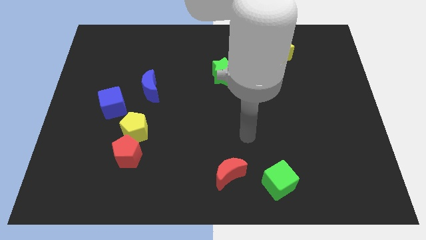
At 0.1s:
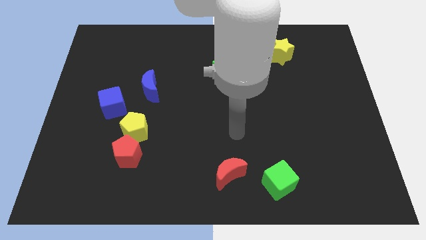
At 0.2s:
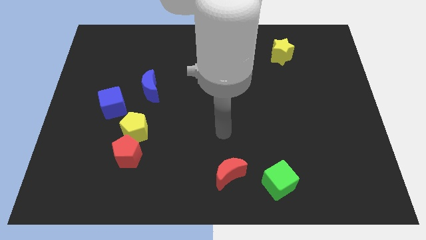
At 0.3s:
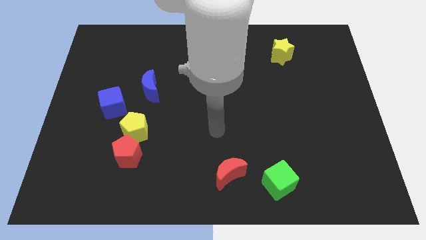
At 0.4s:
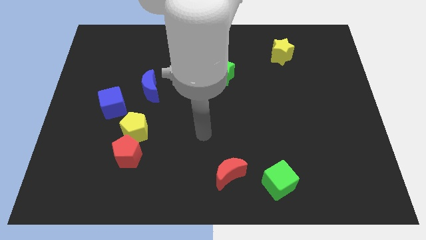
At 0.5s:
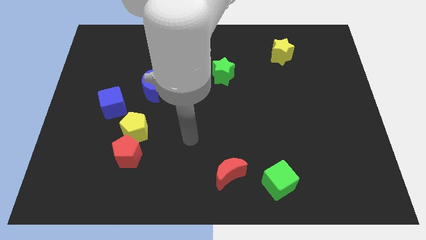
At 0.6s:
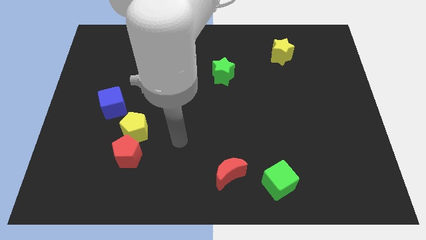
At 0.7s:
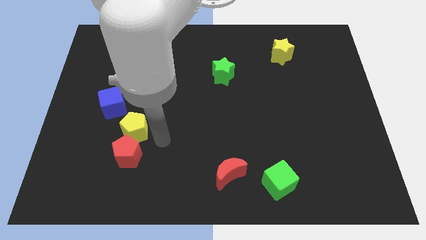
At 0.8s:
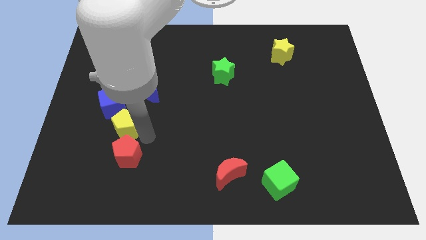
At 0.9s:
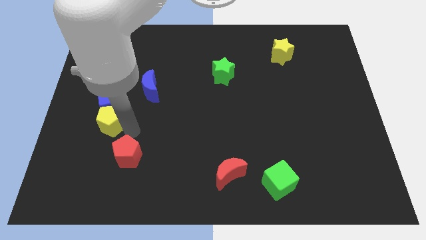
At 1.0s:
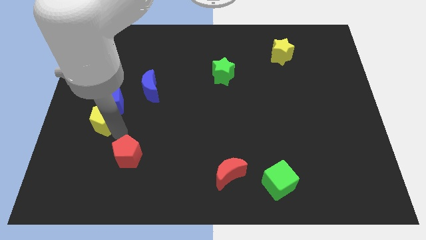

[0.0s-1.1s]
pull the red pentagon apart from the yellow pentagon

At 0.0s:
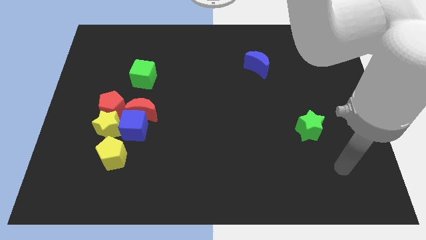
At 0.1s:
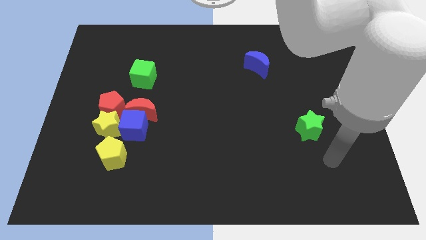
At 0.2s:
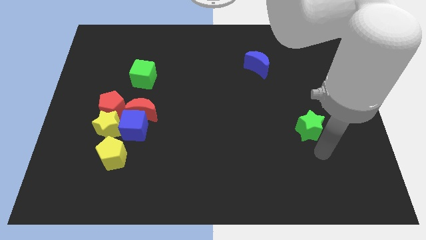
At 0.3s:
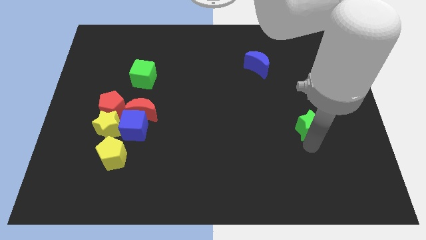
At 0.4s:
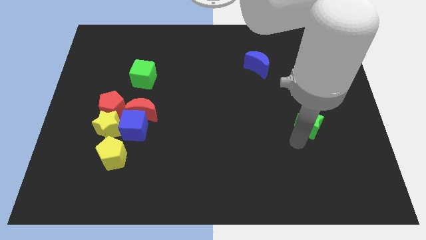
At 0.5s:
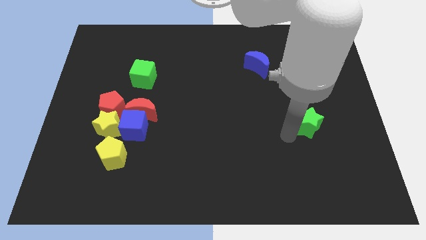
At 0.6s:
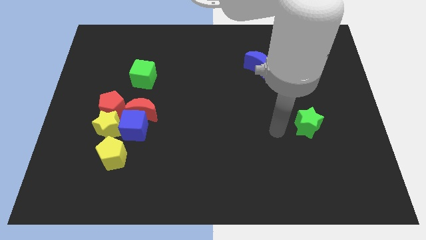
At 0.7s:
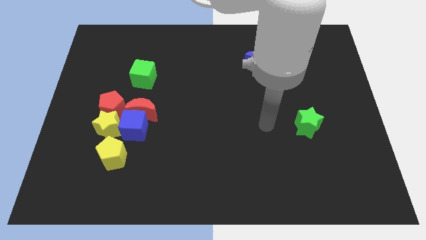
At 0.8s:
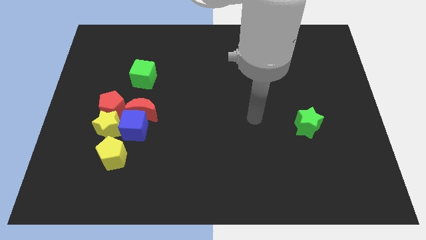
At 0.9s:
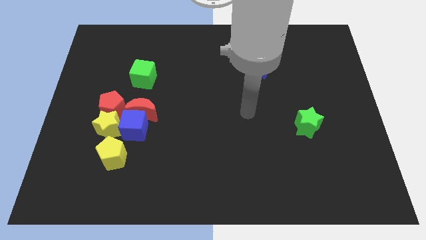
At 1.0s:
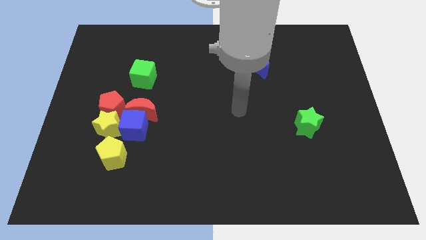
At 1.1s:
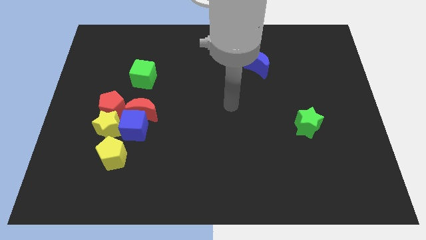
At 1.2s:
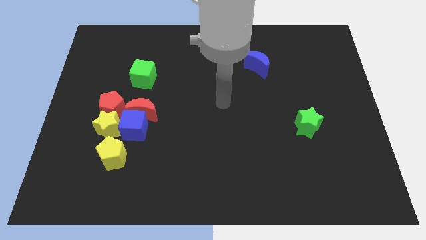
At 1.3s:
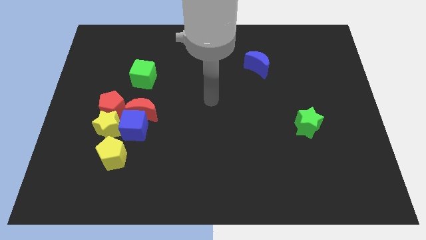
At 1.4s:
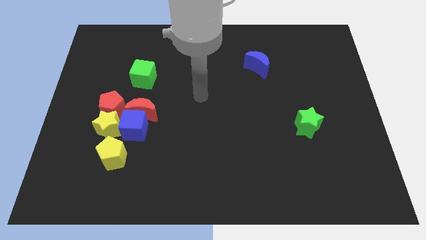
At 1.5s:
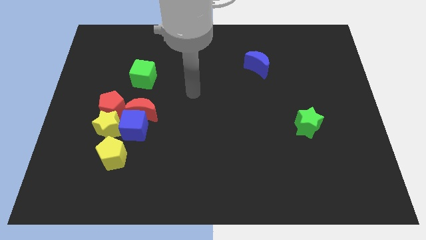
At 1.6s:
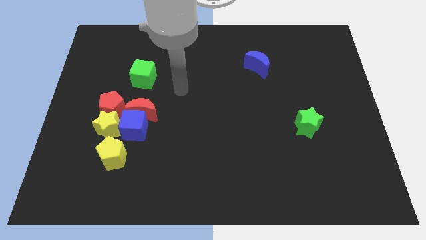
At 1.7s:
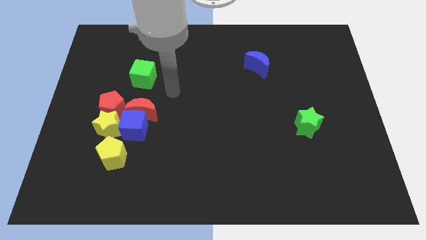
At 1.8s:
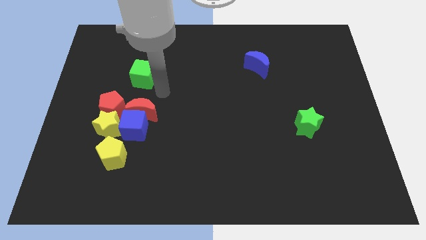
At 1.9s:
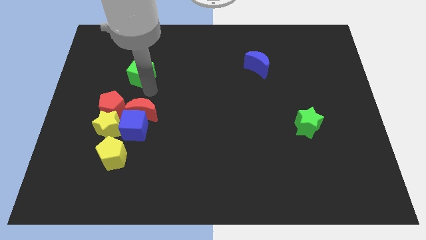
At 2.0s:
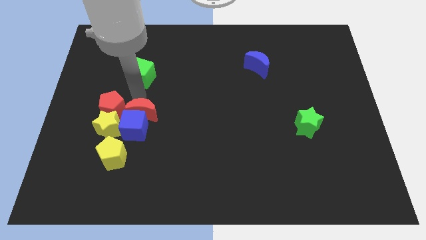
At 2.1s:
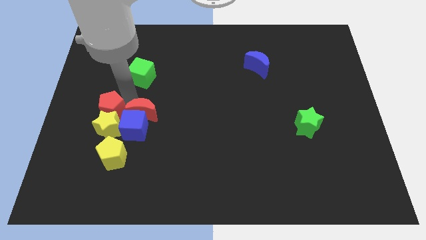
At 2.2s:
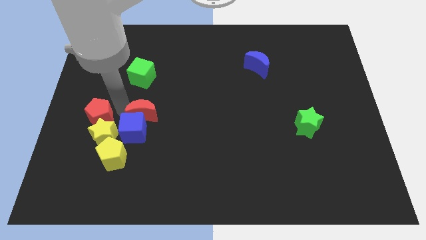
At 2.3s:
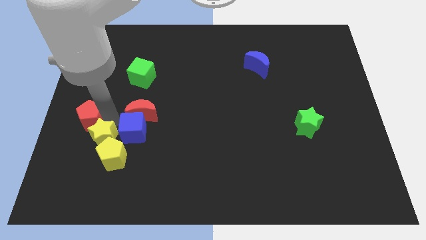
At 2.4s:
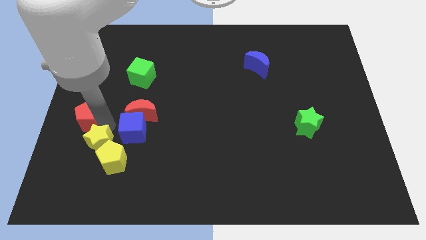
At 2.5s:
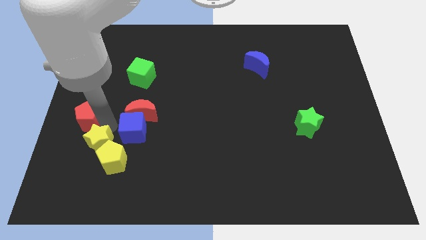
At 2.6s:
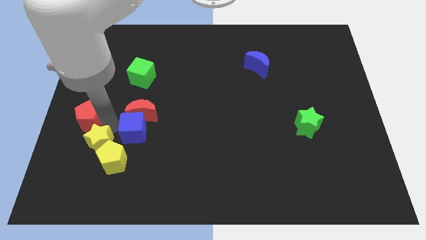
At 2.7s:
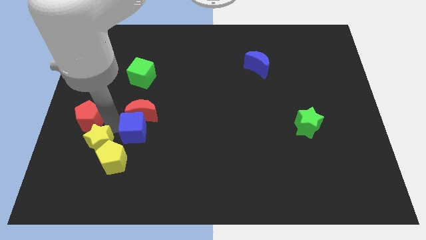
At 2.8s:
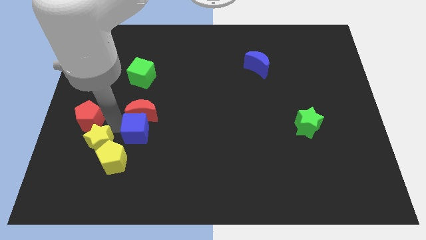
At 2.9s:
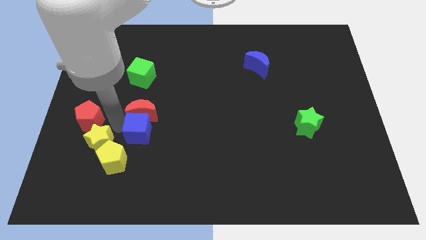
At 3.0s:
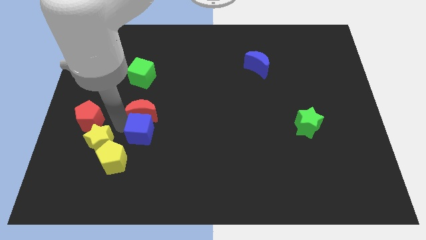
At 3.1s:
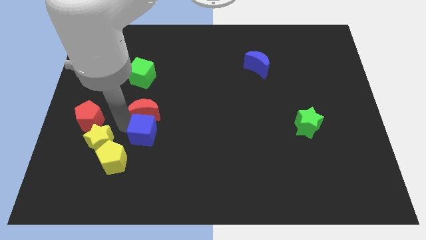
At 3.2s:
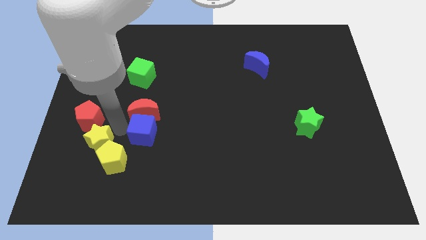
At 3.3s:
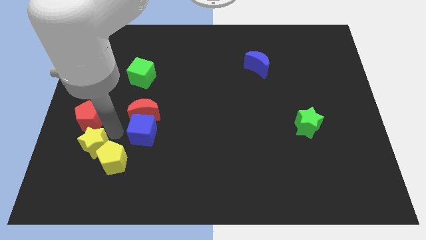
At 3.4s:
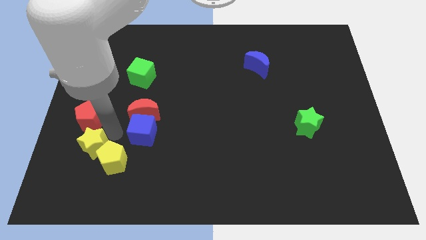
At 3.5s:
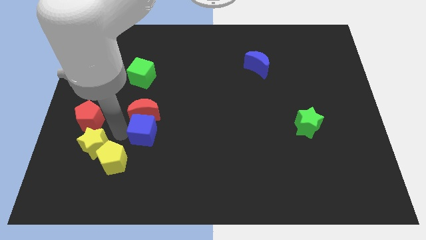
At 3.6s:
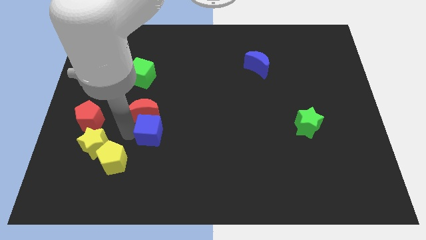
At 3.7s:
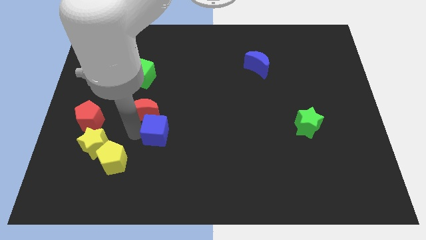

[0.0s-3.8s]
pull the blue cube apart from the group of blocks

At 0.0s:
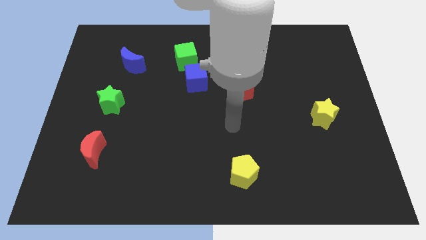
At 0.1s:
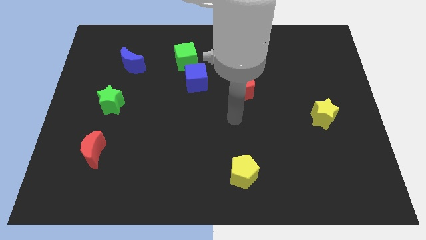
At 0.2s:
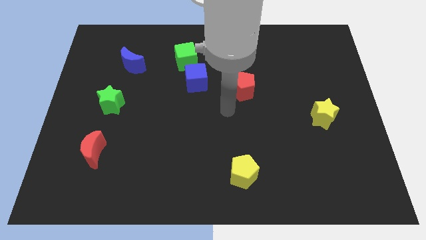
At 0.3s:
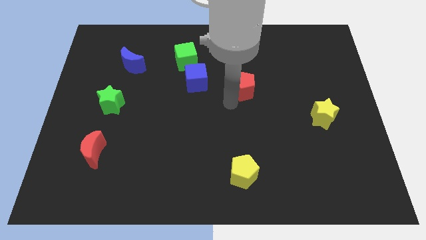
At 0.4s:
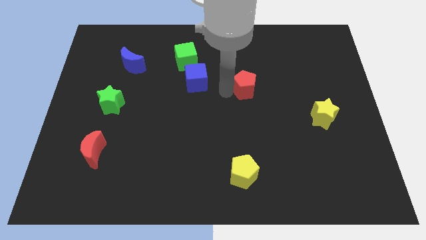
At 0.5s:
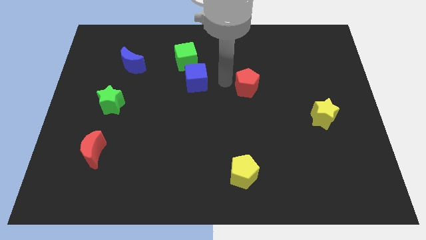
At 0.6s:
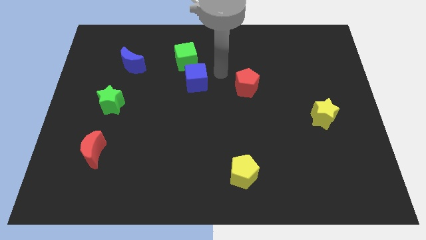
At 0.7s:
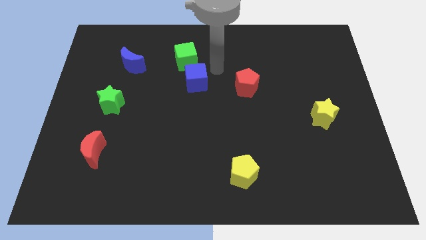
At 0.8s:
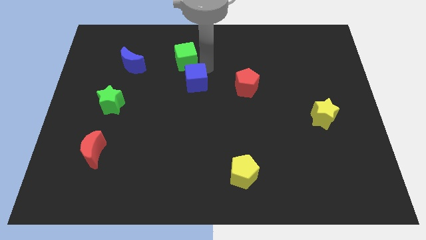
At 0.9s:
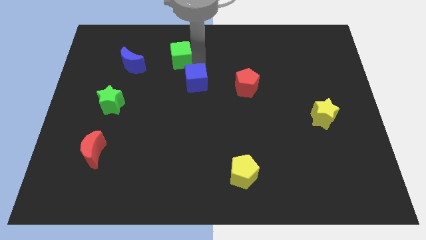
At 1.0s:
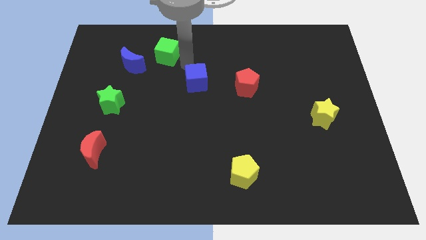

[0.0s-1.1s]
separate the blue cube from the green cube

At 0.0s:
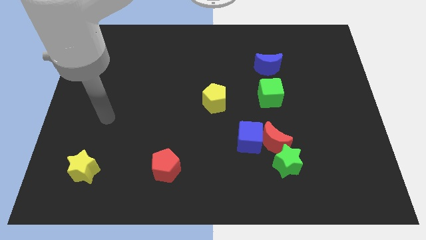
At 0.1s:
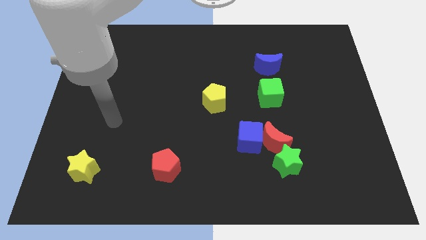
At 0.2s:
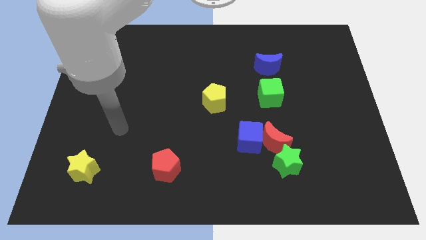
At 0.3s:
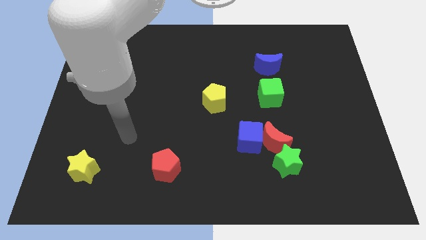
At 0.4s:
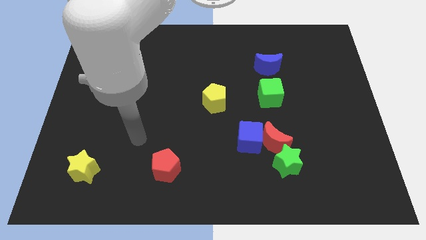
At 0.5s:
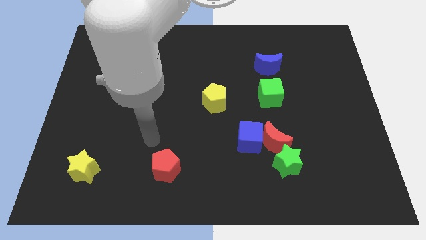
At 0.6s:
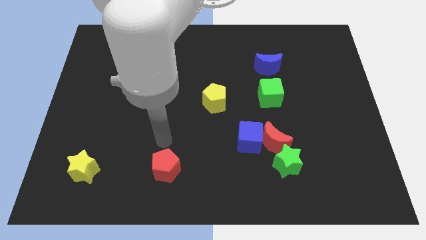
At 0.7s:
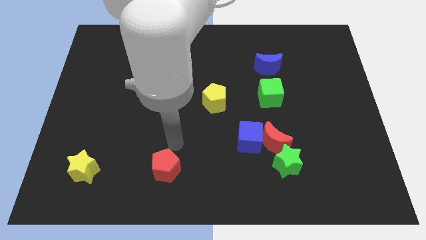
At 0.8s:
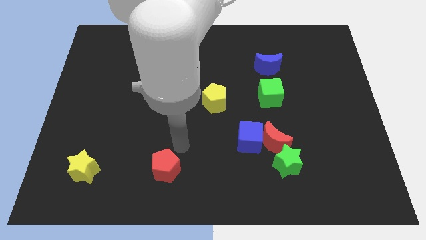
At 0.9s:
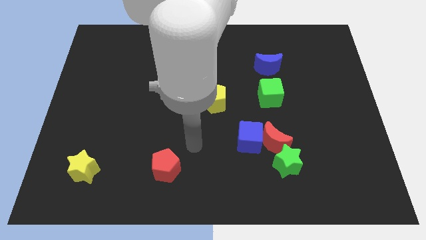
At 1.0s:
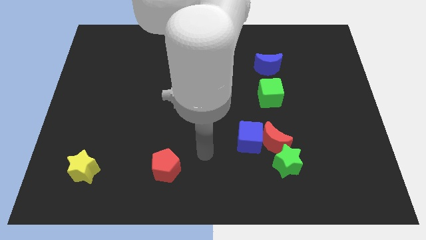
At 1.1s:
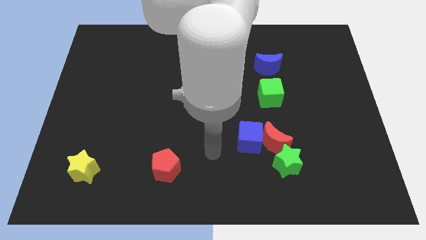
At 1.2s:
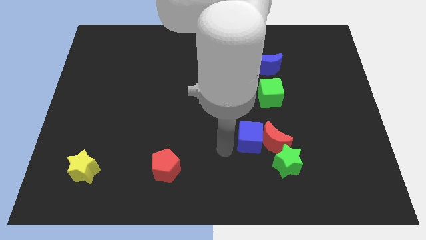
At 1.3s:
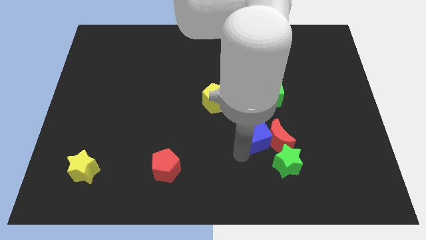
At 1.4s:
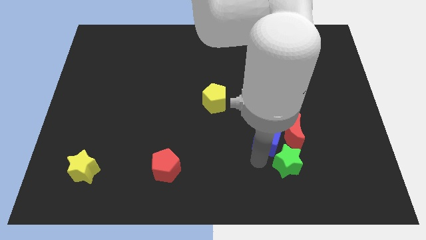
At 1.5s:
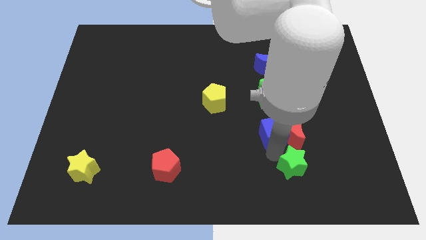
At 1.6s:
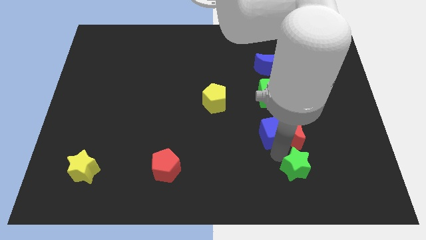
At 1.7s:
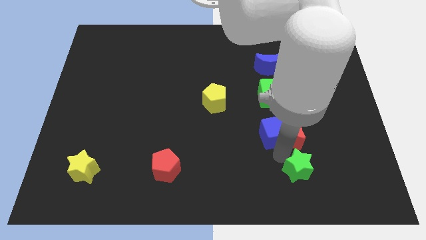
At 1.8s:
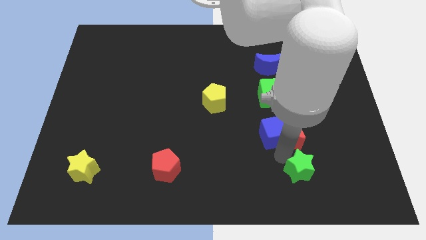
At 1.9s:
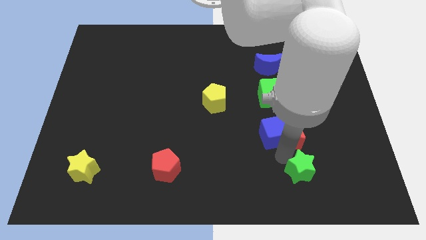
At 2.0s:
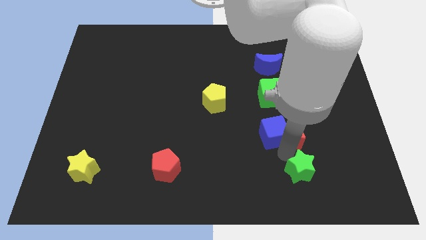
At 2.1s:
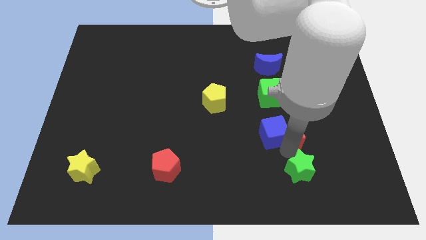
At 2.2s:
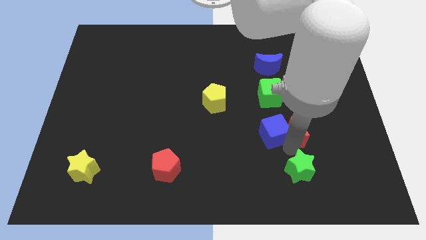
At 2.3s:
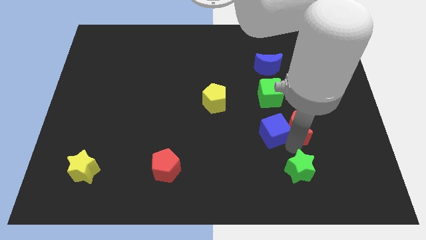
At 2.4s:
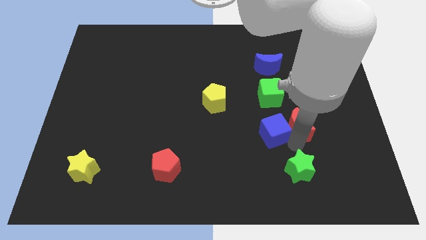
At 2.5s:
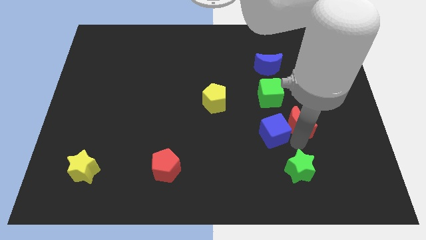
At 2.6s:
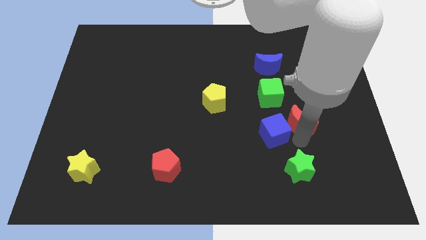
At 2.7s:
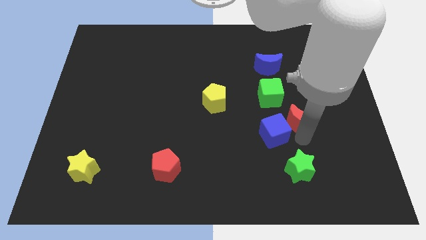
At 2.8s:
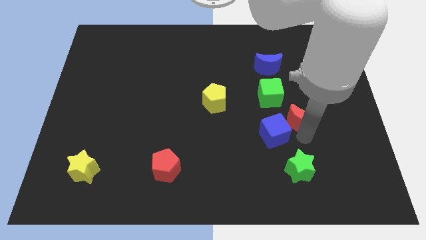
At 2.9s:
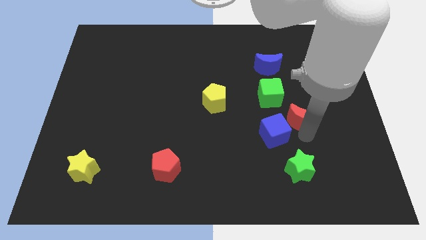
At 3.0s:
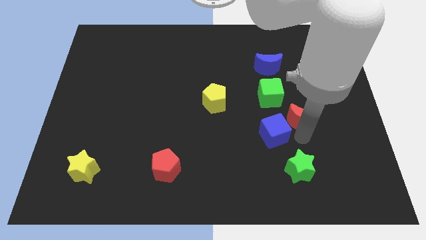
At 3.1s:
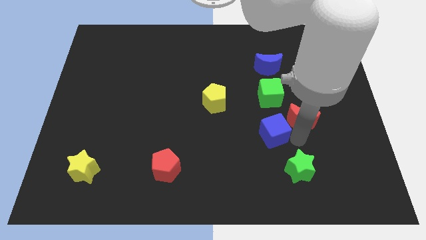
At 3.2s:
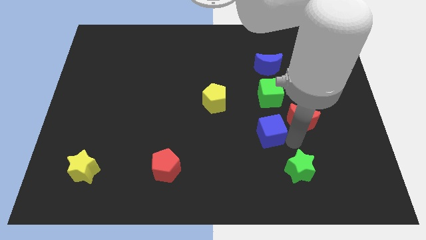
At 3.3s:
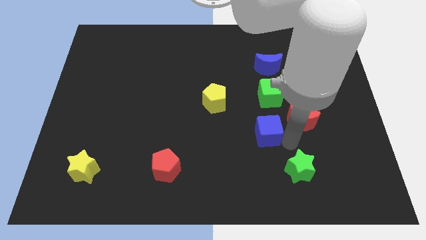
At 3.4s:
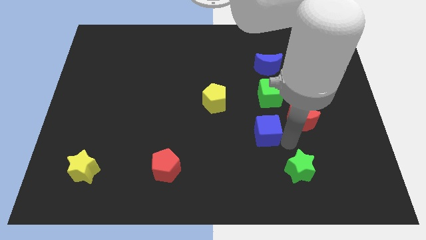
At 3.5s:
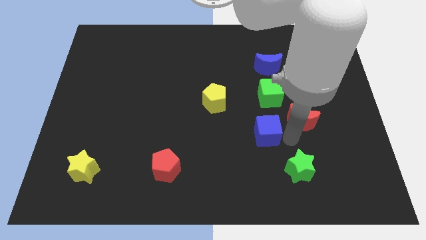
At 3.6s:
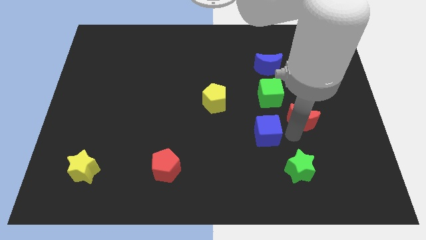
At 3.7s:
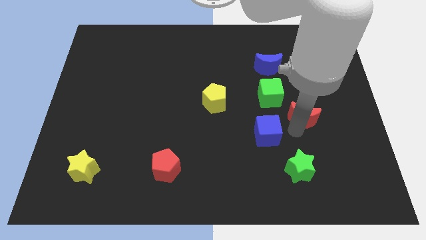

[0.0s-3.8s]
pull the red moon apart from the blue cube and green star
